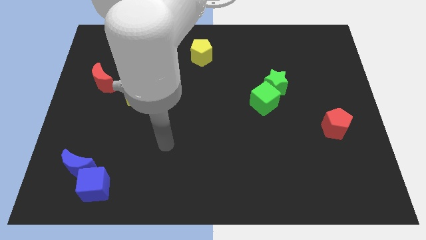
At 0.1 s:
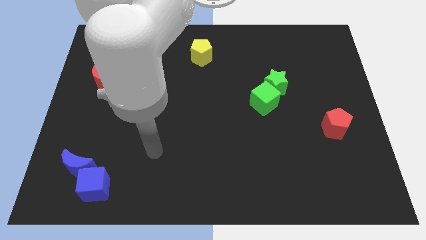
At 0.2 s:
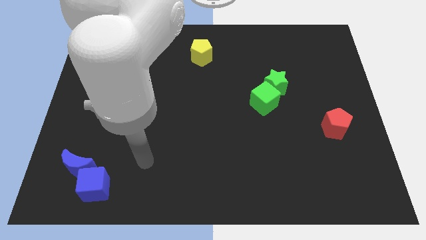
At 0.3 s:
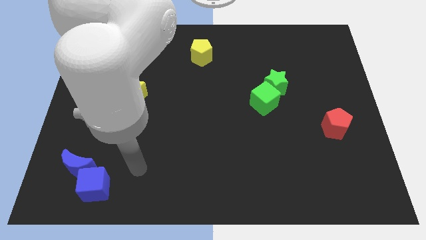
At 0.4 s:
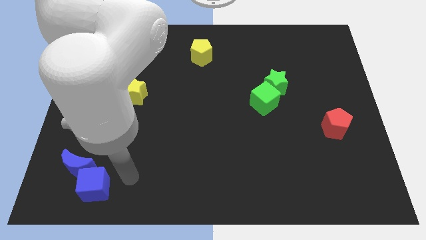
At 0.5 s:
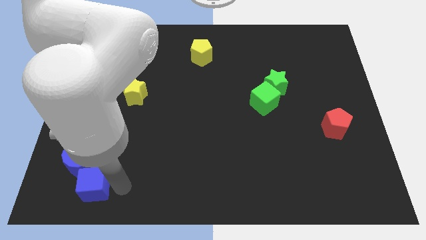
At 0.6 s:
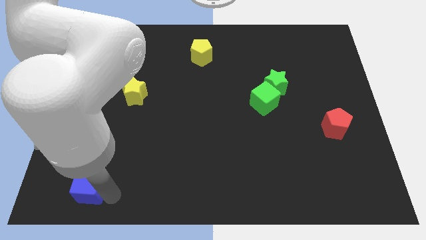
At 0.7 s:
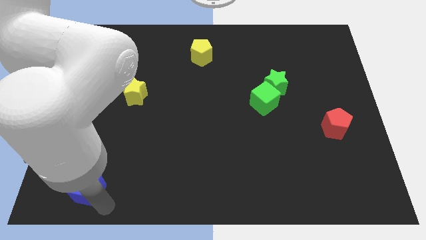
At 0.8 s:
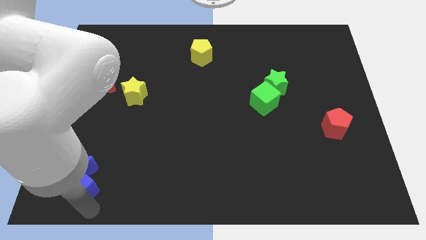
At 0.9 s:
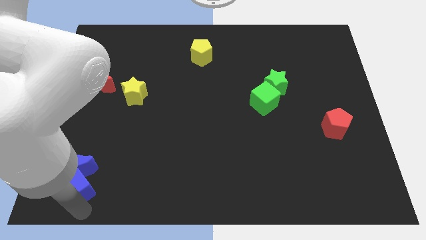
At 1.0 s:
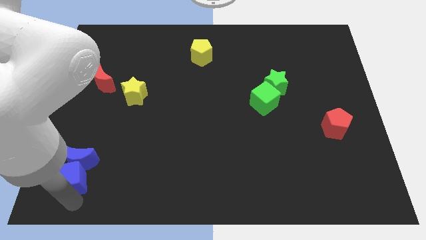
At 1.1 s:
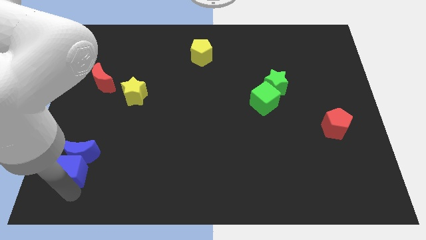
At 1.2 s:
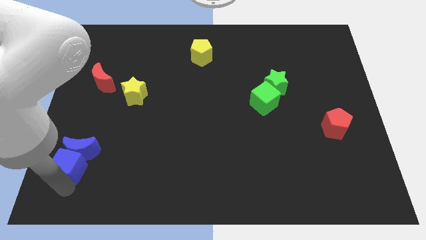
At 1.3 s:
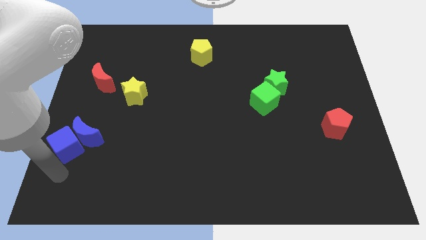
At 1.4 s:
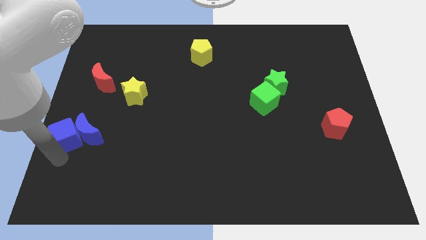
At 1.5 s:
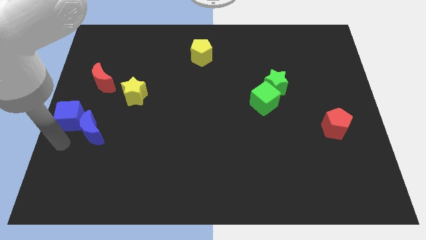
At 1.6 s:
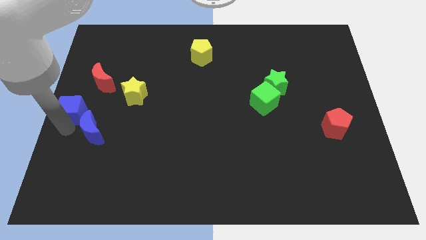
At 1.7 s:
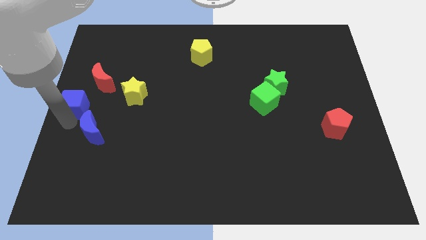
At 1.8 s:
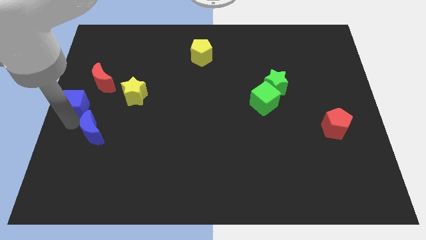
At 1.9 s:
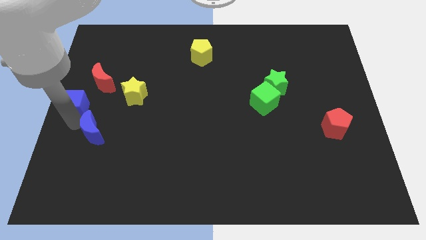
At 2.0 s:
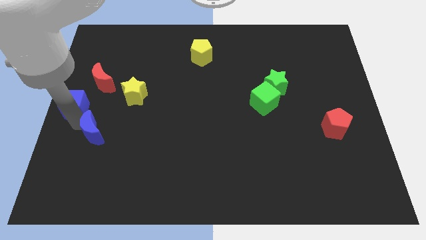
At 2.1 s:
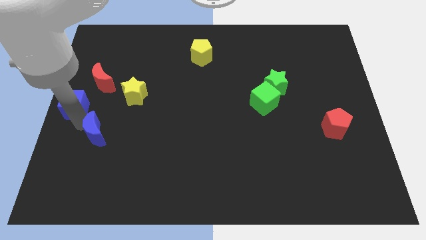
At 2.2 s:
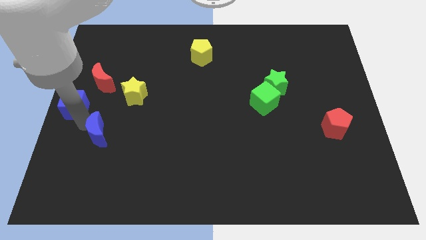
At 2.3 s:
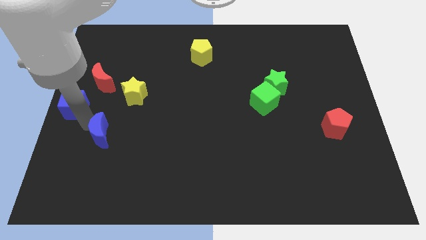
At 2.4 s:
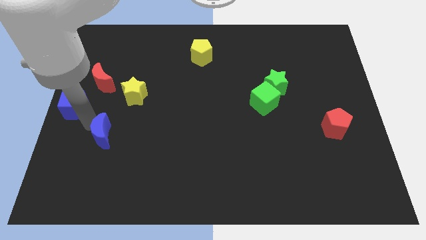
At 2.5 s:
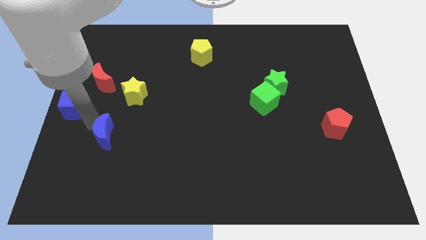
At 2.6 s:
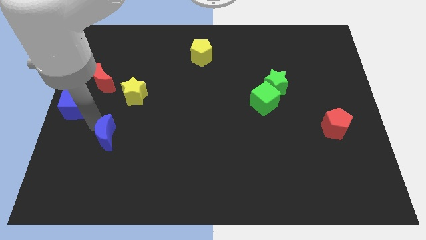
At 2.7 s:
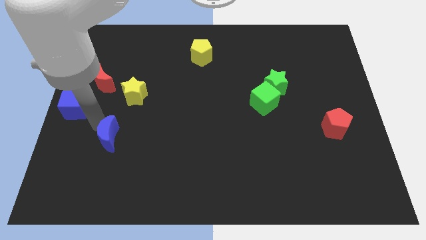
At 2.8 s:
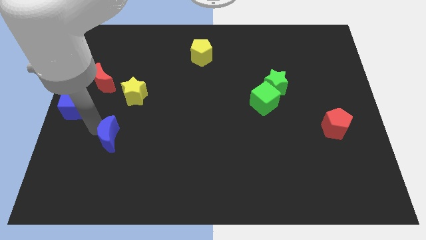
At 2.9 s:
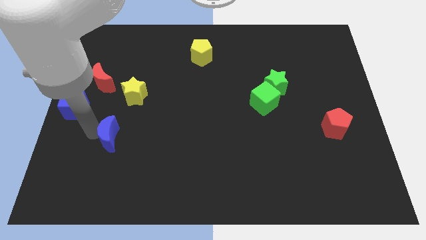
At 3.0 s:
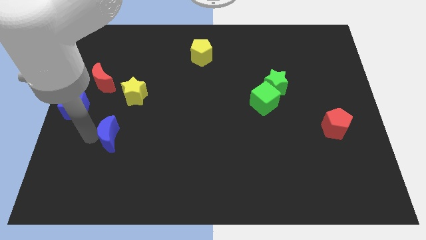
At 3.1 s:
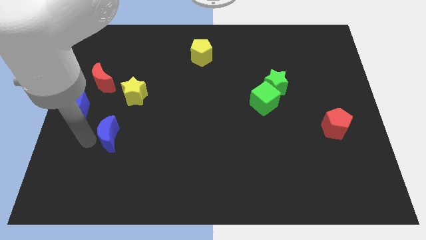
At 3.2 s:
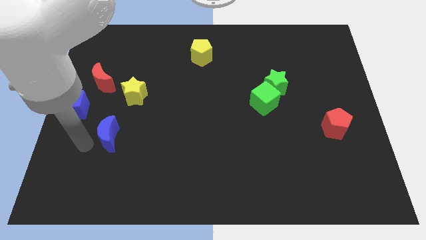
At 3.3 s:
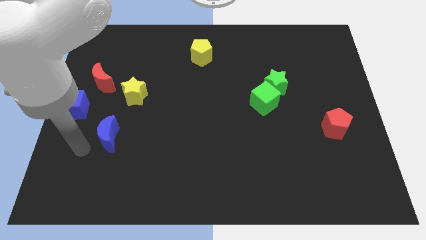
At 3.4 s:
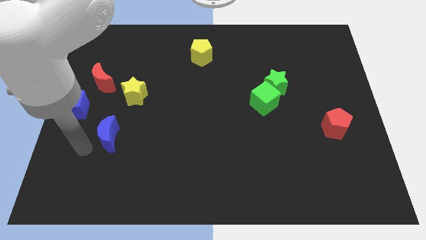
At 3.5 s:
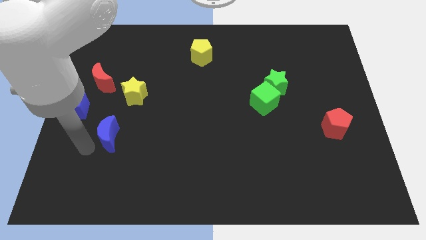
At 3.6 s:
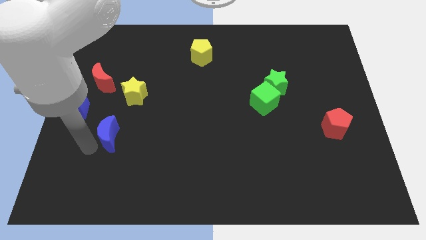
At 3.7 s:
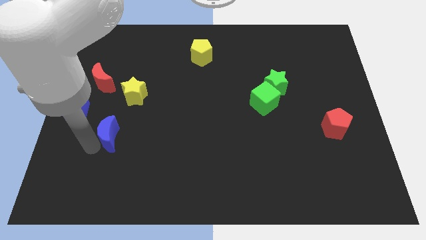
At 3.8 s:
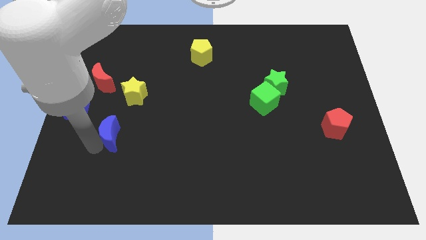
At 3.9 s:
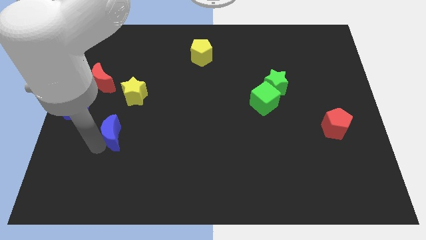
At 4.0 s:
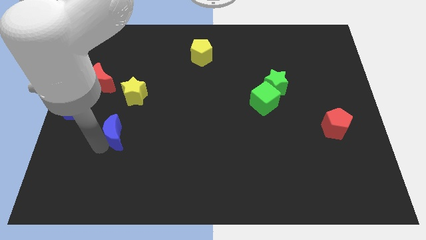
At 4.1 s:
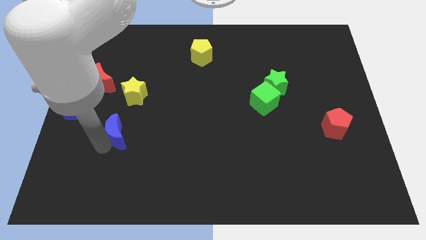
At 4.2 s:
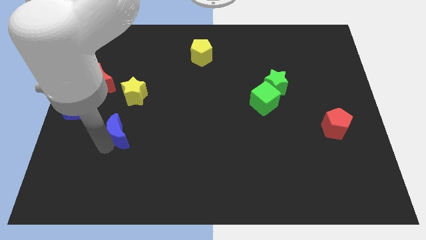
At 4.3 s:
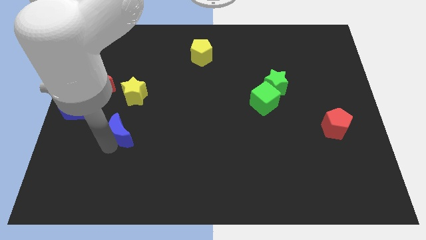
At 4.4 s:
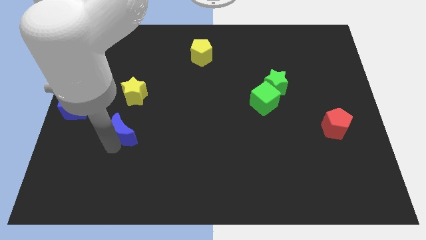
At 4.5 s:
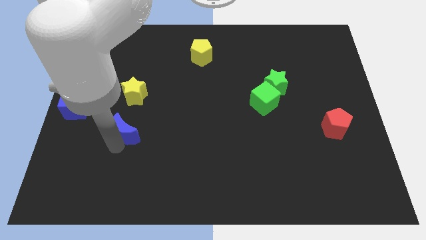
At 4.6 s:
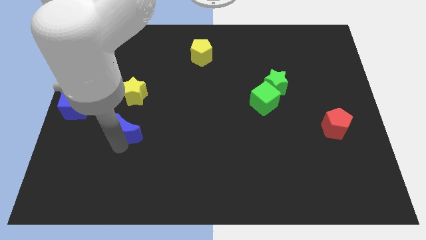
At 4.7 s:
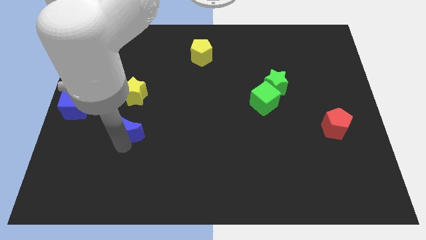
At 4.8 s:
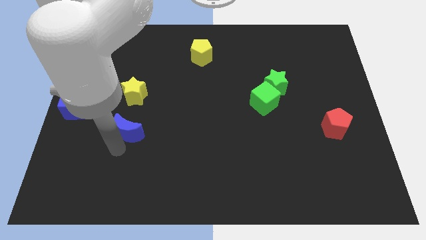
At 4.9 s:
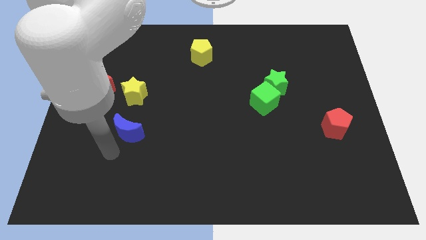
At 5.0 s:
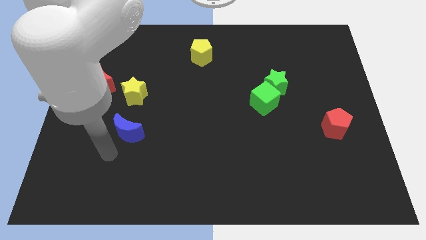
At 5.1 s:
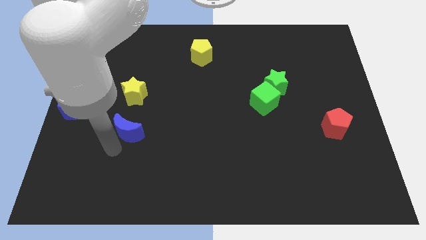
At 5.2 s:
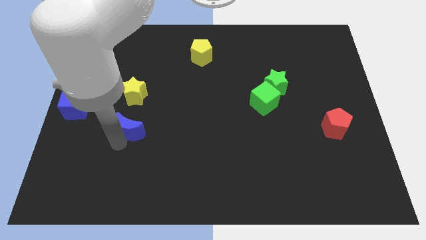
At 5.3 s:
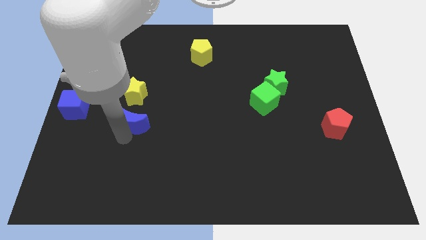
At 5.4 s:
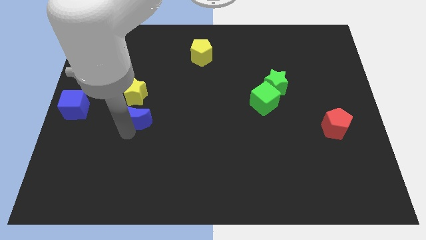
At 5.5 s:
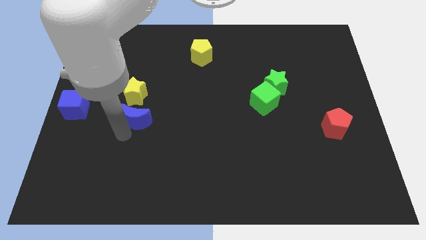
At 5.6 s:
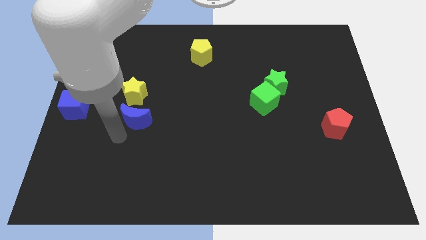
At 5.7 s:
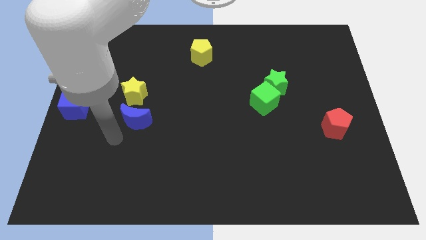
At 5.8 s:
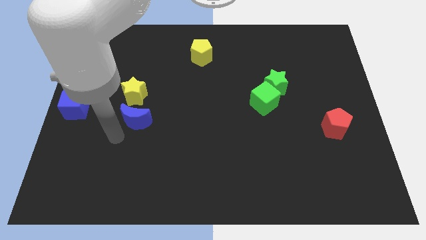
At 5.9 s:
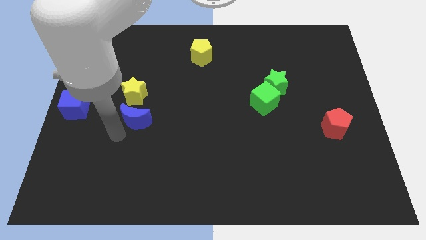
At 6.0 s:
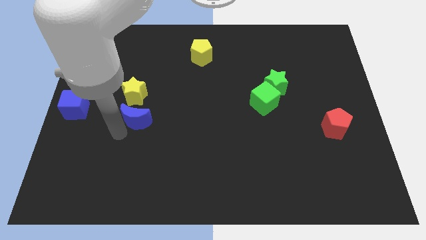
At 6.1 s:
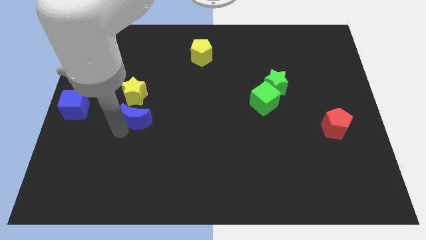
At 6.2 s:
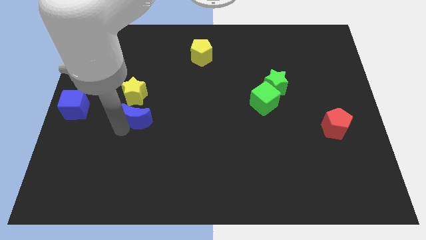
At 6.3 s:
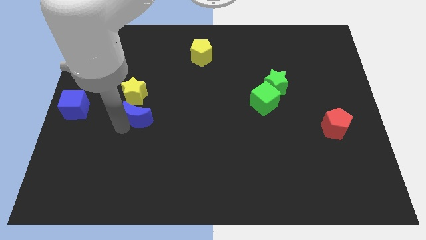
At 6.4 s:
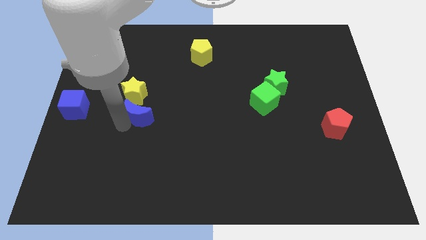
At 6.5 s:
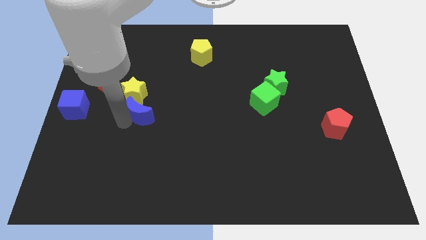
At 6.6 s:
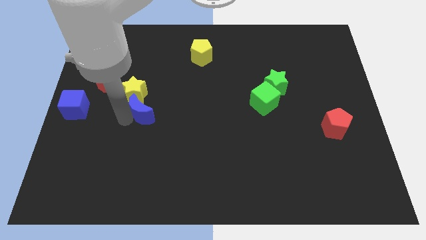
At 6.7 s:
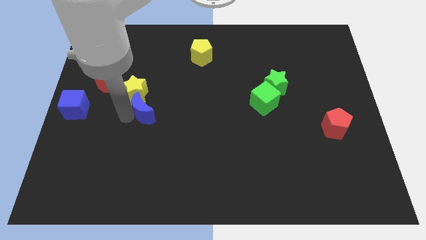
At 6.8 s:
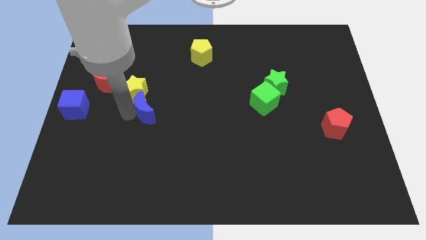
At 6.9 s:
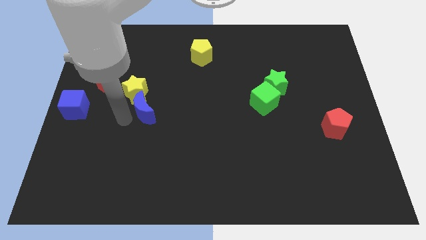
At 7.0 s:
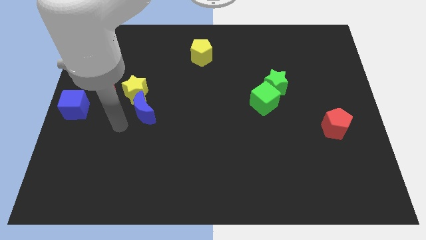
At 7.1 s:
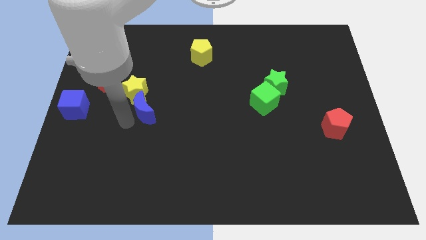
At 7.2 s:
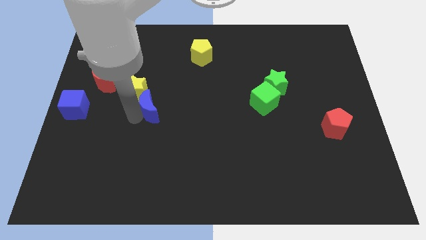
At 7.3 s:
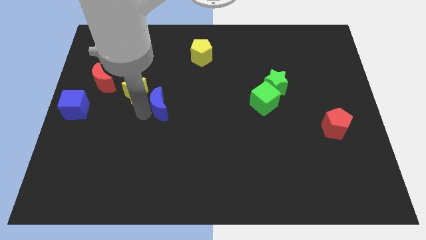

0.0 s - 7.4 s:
push the blue moon to the right of the yellow star

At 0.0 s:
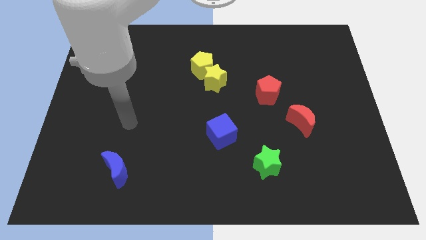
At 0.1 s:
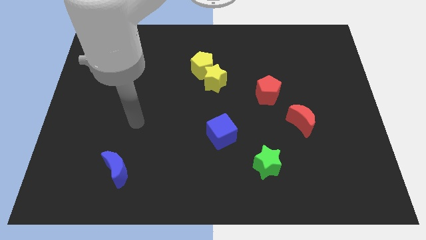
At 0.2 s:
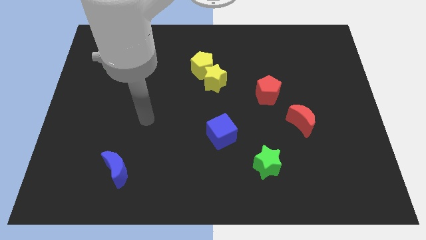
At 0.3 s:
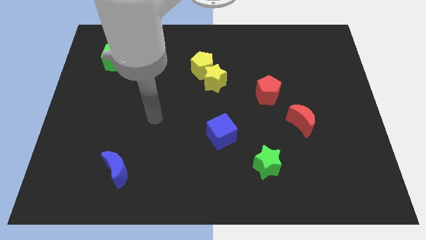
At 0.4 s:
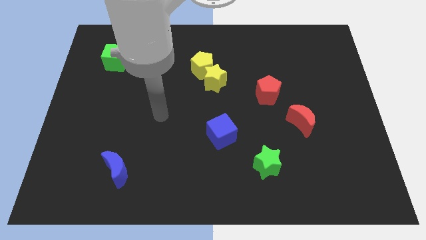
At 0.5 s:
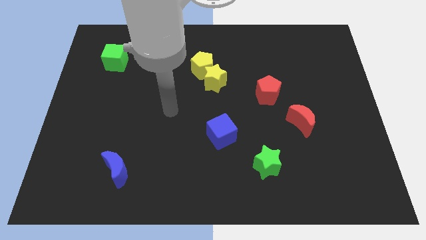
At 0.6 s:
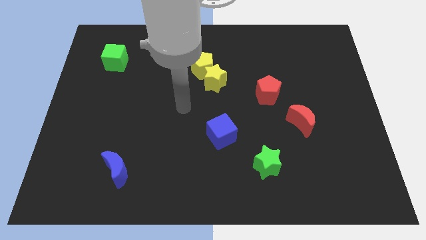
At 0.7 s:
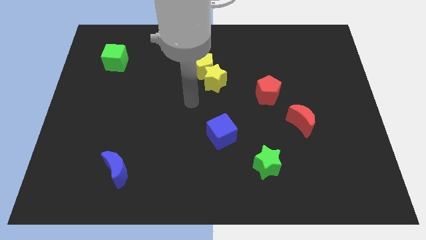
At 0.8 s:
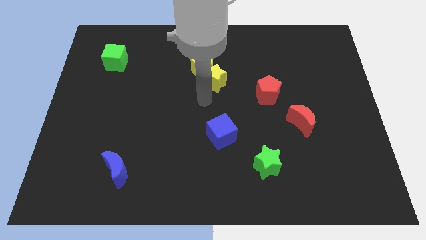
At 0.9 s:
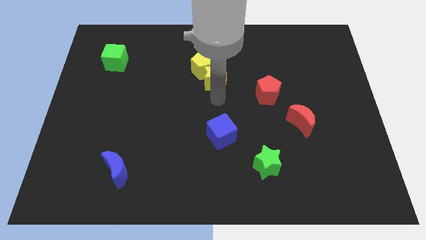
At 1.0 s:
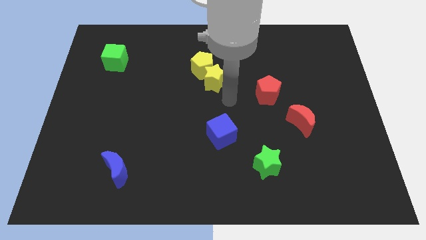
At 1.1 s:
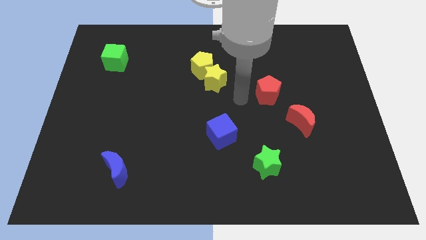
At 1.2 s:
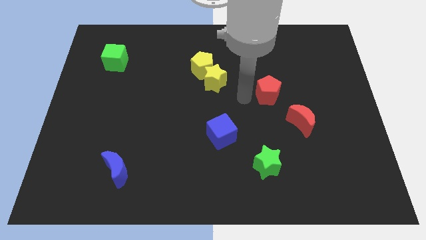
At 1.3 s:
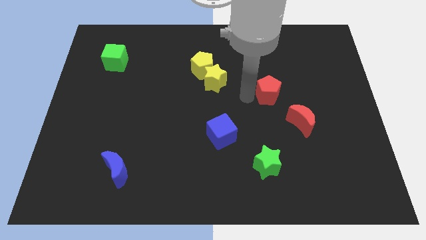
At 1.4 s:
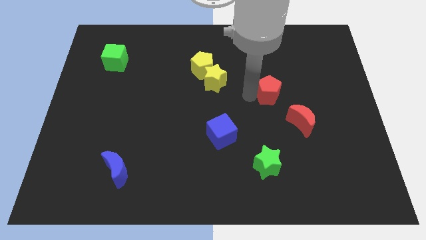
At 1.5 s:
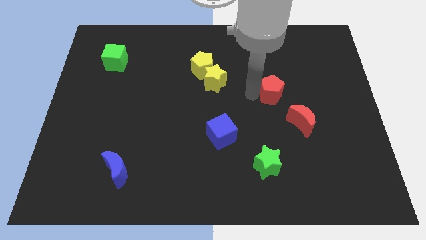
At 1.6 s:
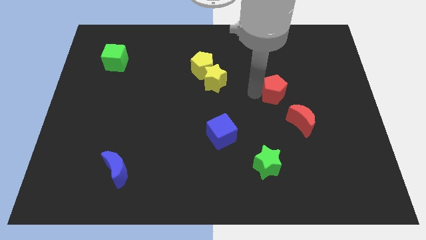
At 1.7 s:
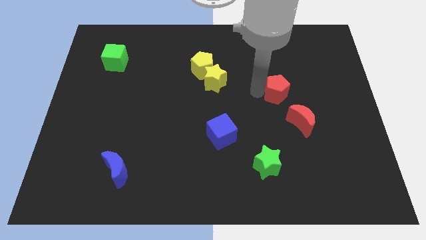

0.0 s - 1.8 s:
push the red pentagon to the top side of the red moon
